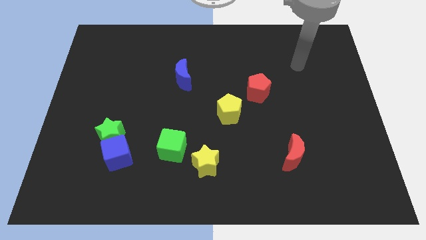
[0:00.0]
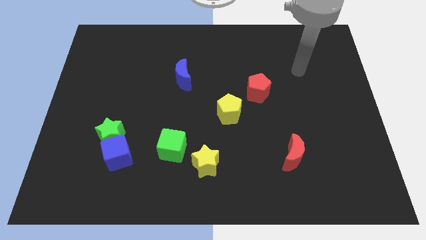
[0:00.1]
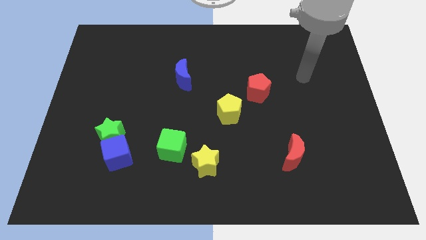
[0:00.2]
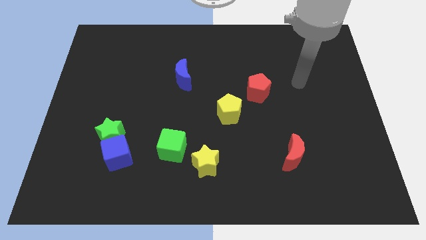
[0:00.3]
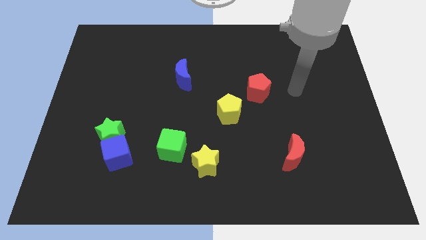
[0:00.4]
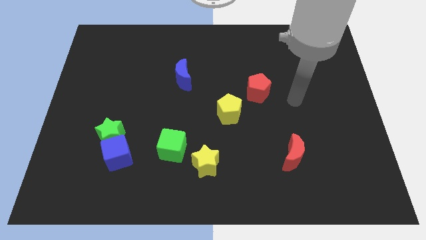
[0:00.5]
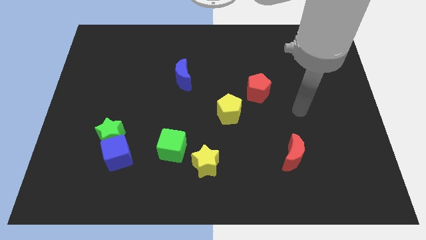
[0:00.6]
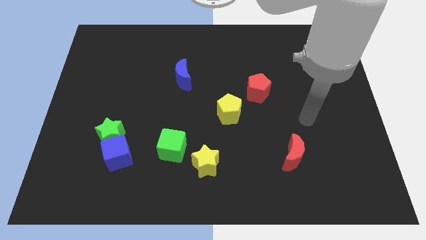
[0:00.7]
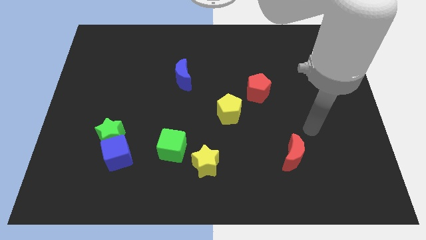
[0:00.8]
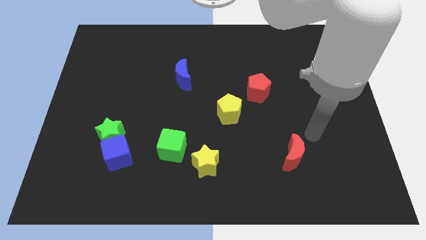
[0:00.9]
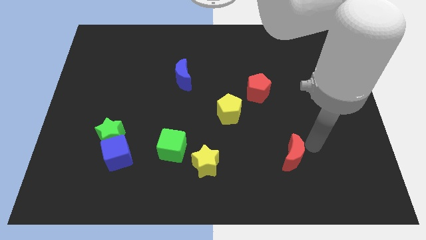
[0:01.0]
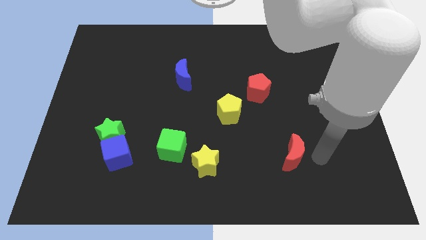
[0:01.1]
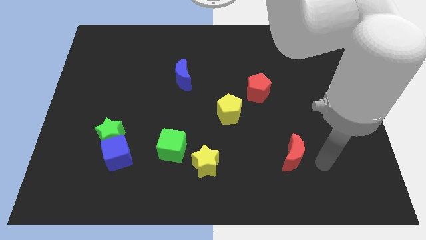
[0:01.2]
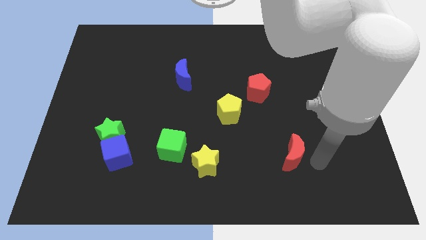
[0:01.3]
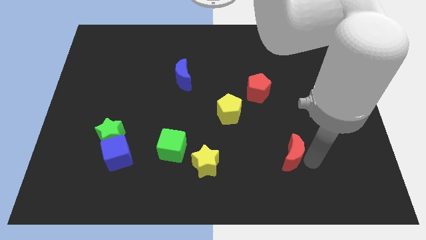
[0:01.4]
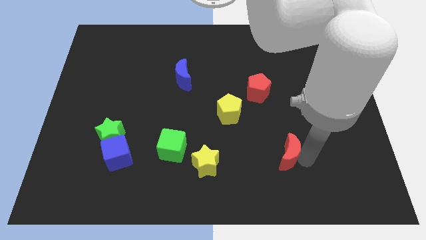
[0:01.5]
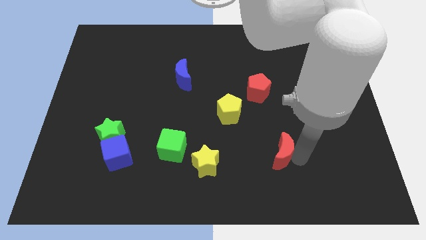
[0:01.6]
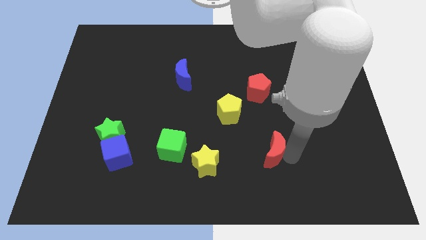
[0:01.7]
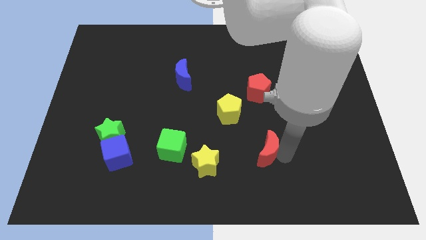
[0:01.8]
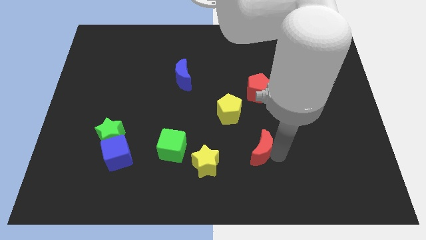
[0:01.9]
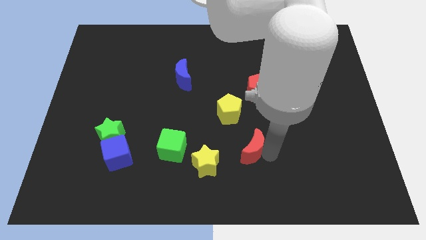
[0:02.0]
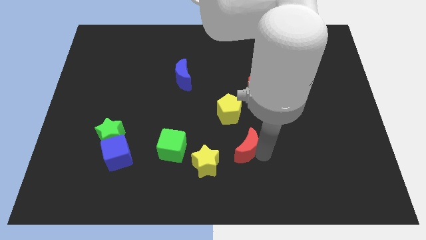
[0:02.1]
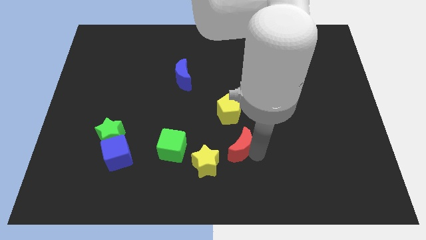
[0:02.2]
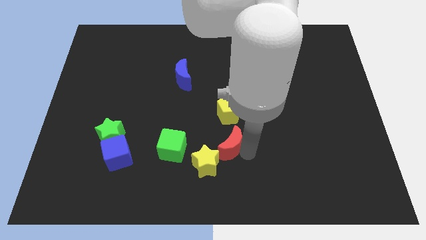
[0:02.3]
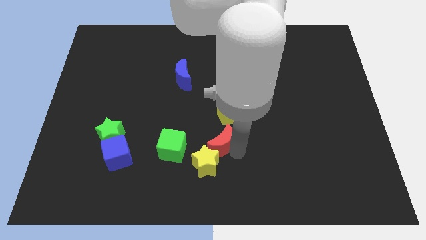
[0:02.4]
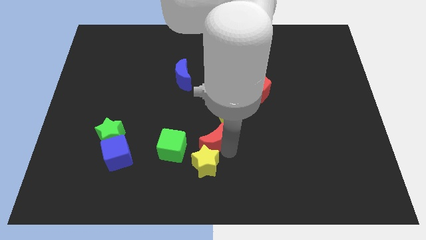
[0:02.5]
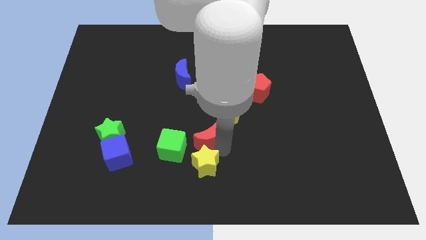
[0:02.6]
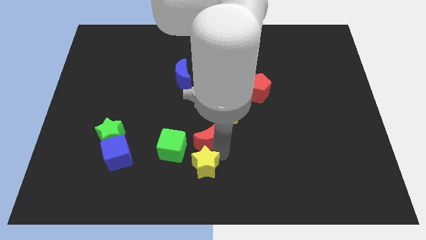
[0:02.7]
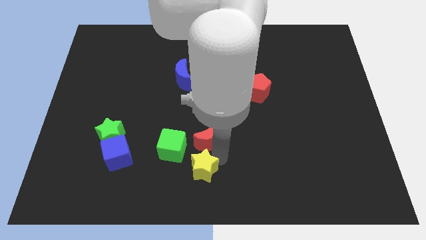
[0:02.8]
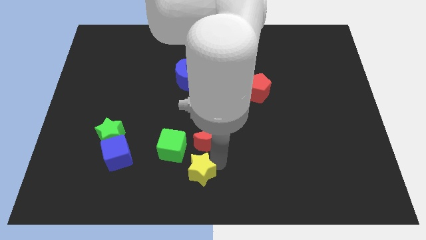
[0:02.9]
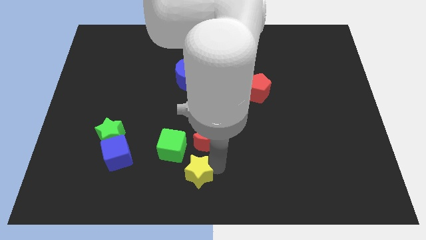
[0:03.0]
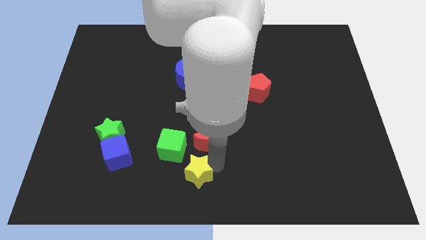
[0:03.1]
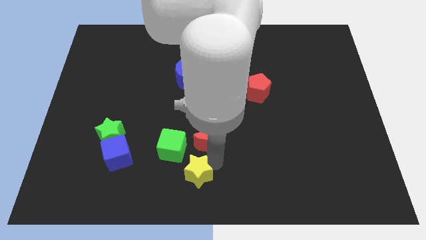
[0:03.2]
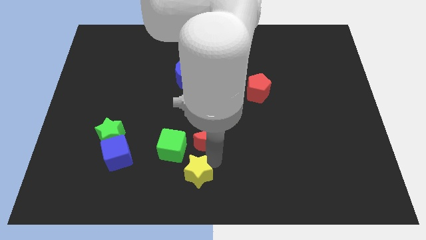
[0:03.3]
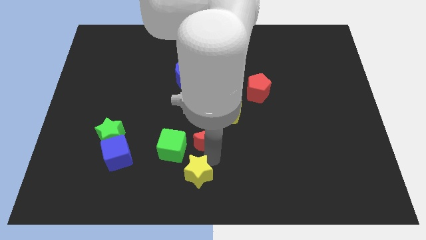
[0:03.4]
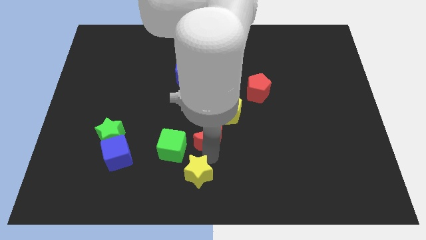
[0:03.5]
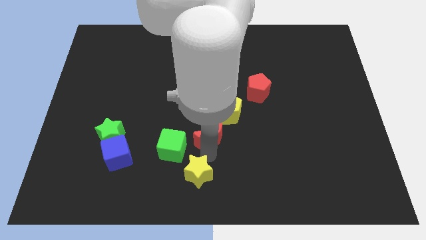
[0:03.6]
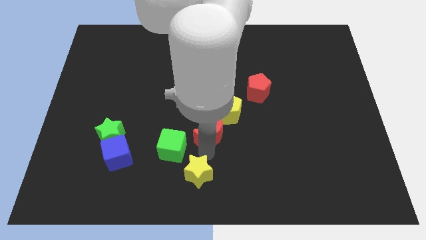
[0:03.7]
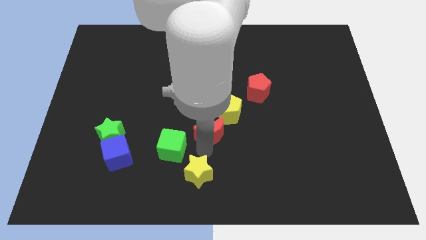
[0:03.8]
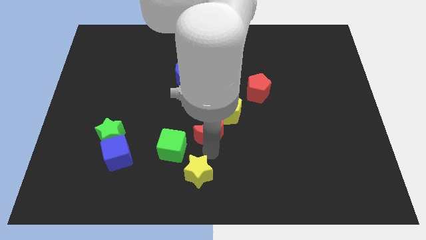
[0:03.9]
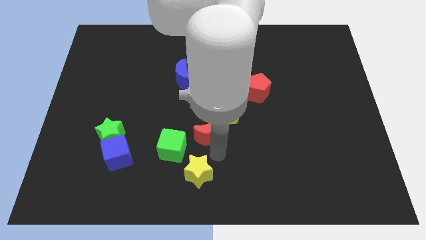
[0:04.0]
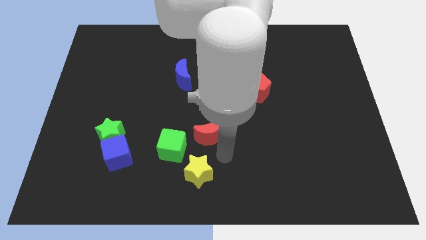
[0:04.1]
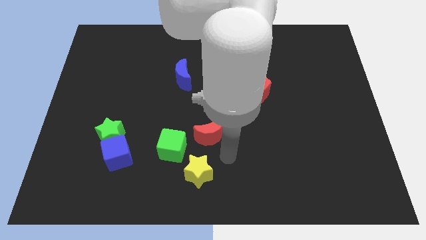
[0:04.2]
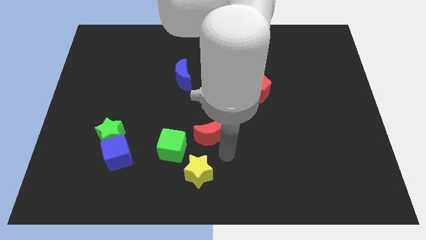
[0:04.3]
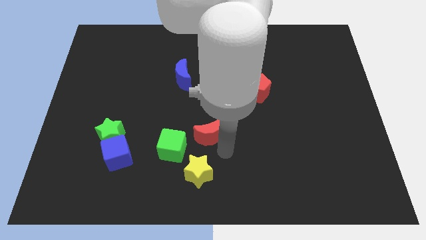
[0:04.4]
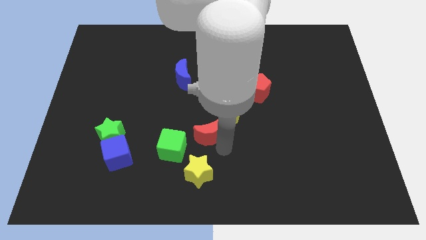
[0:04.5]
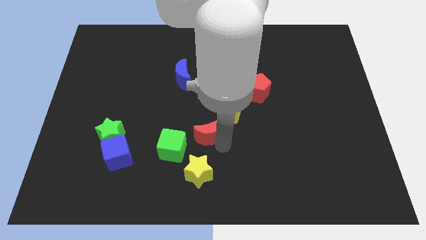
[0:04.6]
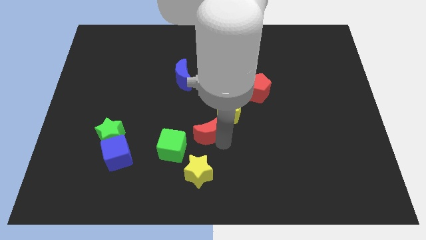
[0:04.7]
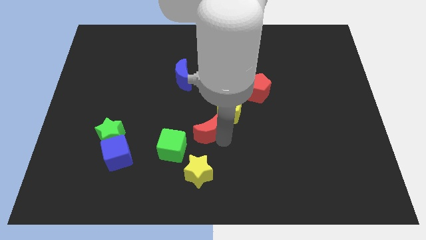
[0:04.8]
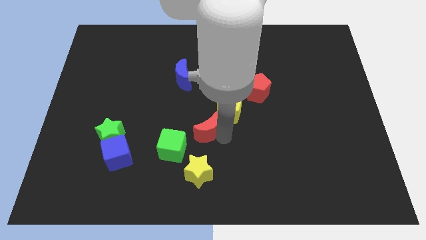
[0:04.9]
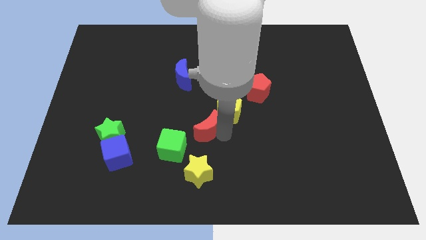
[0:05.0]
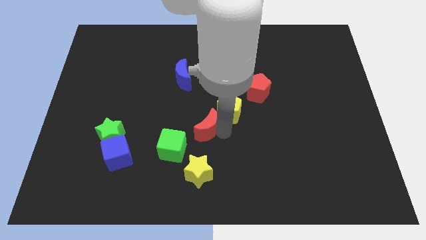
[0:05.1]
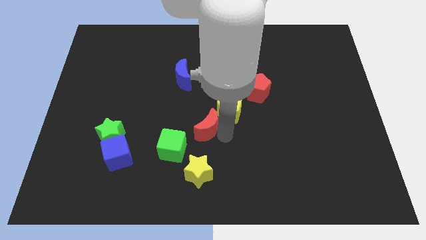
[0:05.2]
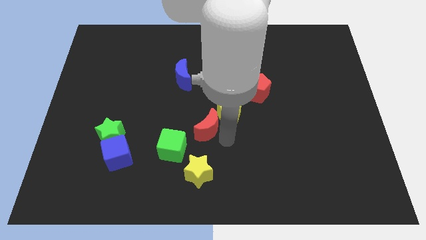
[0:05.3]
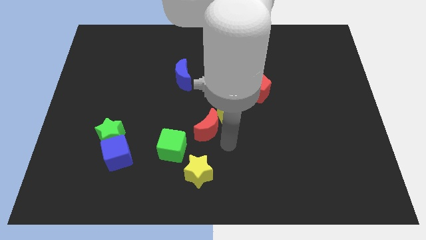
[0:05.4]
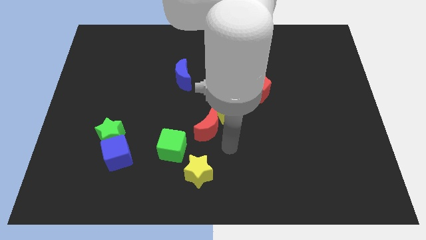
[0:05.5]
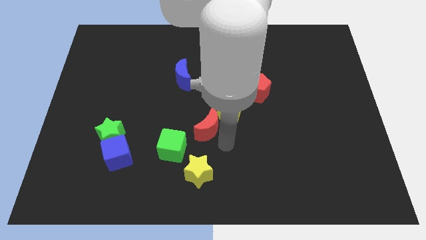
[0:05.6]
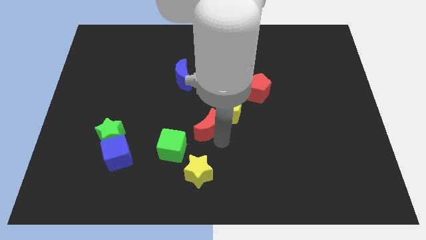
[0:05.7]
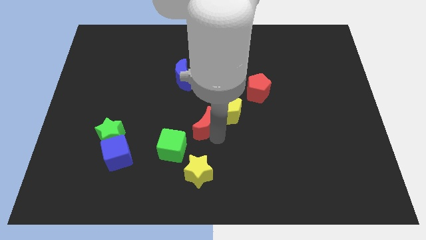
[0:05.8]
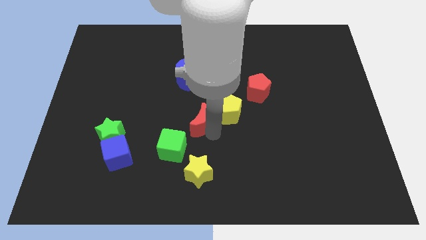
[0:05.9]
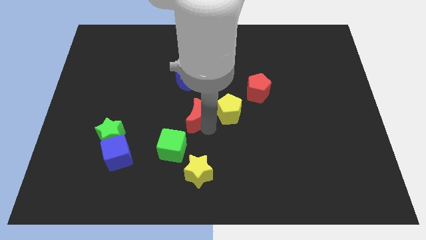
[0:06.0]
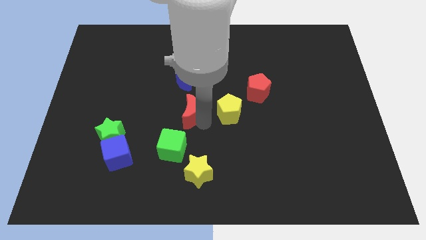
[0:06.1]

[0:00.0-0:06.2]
push the red moon to the top side of the green cube

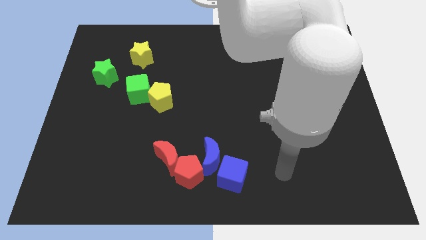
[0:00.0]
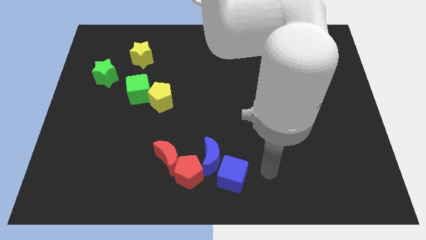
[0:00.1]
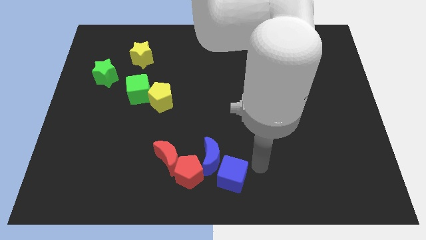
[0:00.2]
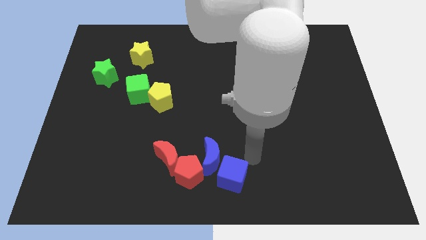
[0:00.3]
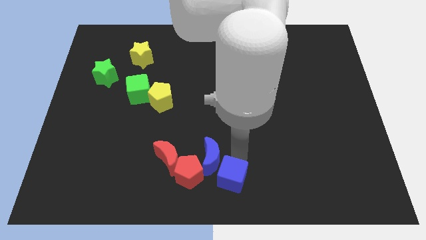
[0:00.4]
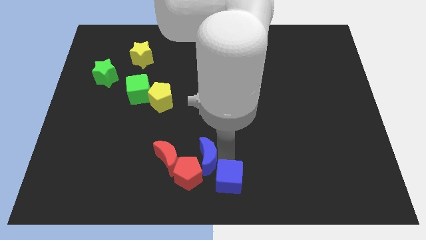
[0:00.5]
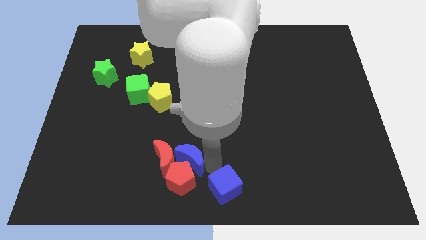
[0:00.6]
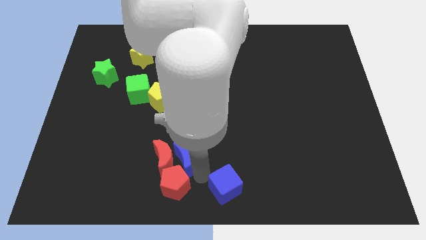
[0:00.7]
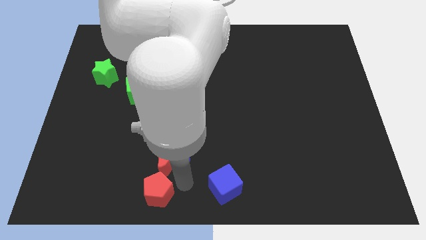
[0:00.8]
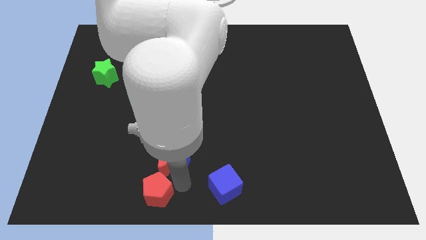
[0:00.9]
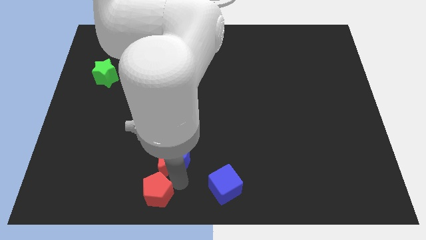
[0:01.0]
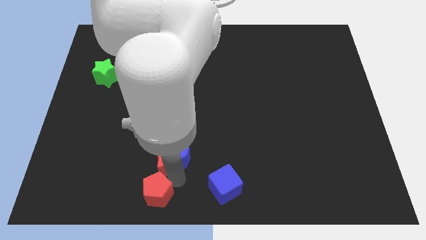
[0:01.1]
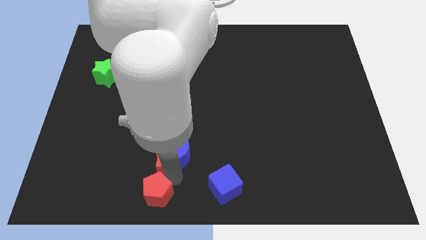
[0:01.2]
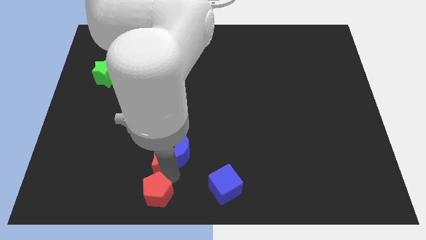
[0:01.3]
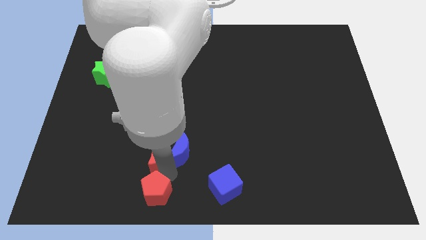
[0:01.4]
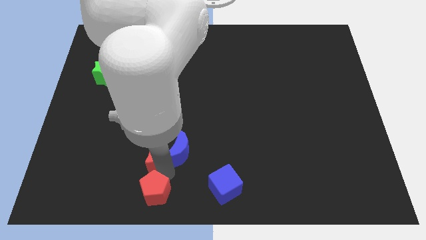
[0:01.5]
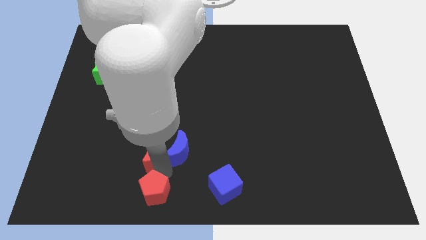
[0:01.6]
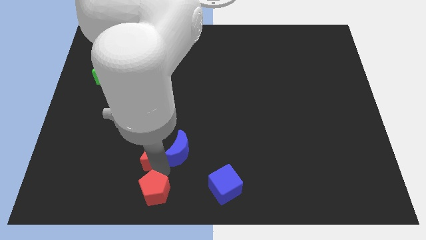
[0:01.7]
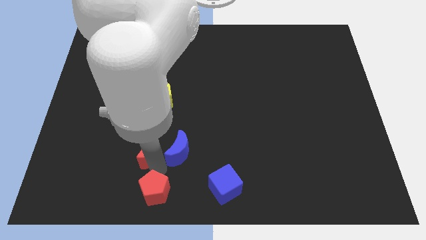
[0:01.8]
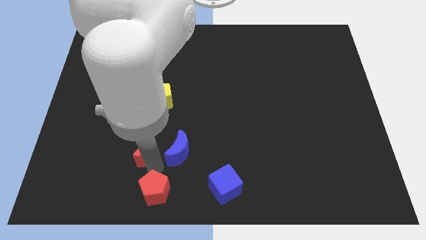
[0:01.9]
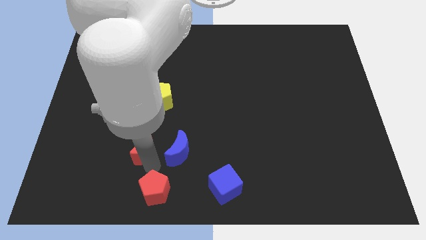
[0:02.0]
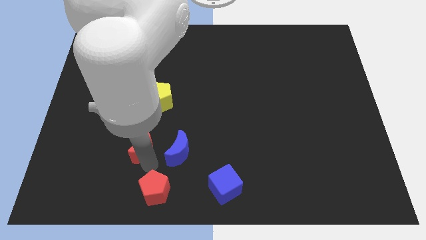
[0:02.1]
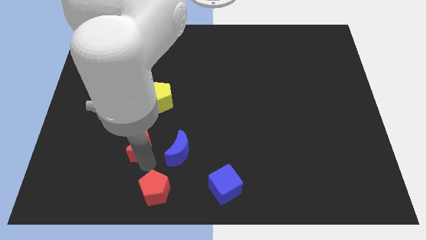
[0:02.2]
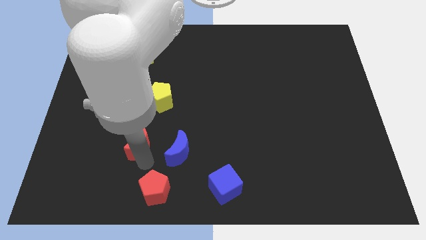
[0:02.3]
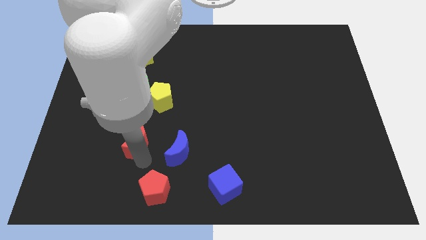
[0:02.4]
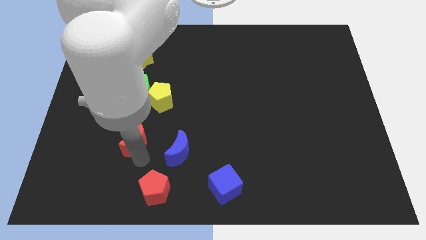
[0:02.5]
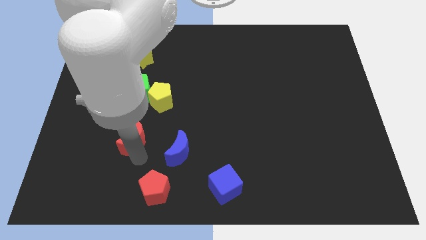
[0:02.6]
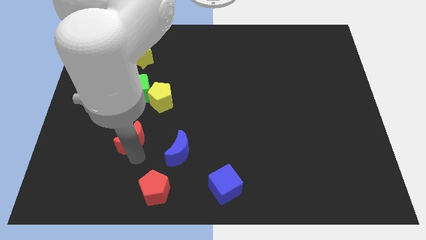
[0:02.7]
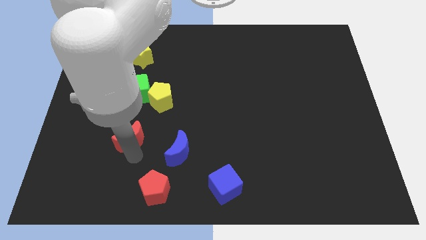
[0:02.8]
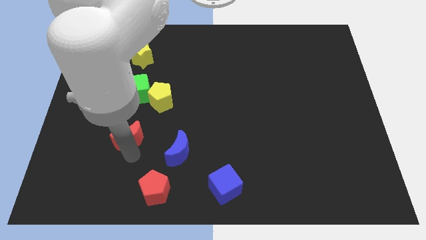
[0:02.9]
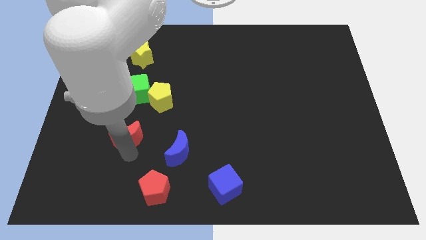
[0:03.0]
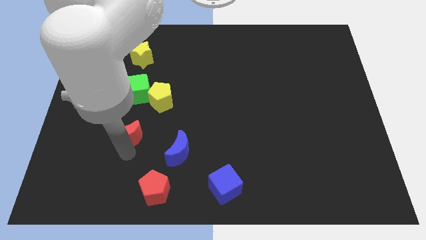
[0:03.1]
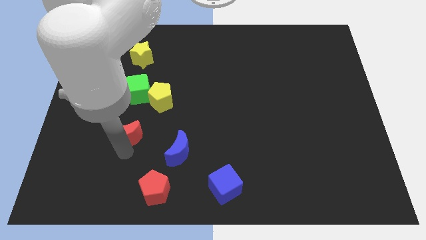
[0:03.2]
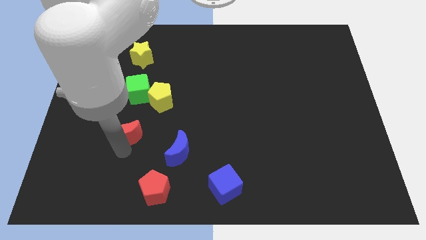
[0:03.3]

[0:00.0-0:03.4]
push the red moon to the bottom left side of the yellow pentagon
